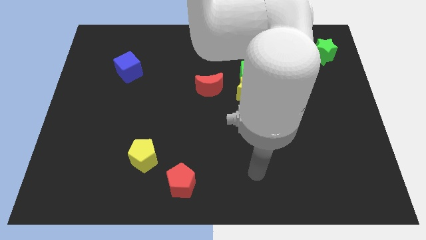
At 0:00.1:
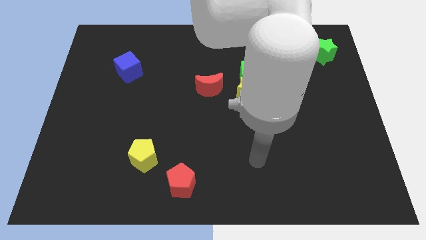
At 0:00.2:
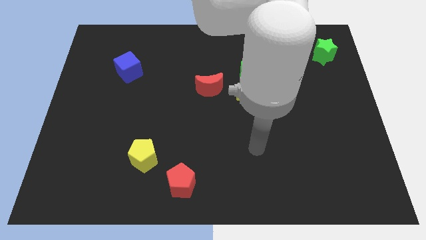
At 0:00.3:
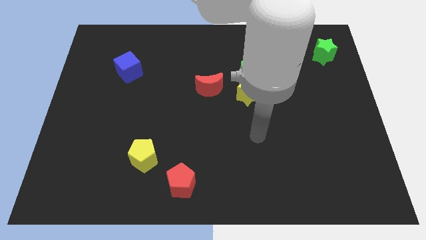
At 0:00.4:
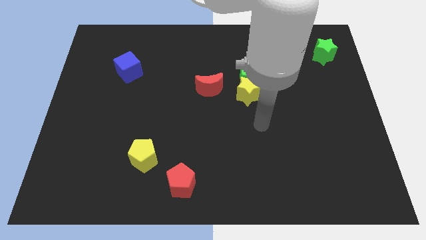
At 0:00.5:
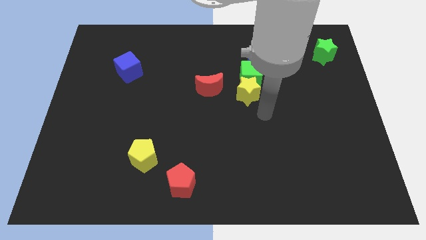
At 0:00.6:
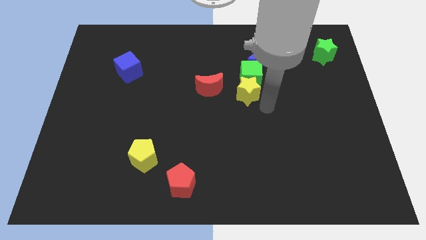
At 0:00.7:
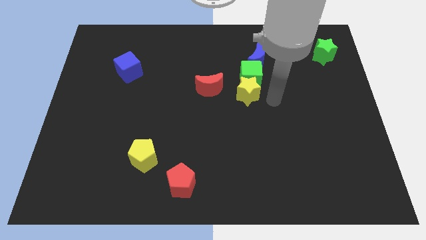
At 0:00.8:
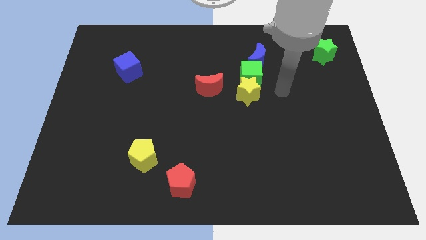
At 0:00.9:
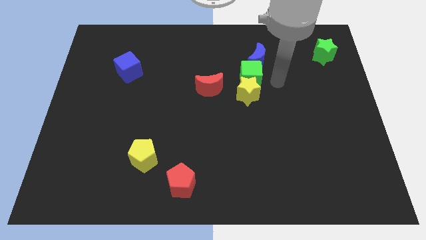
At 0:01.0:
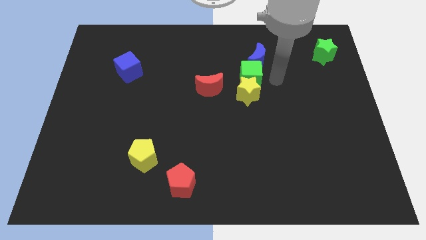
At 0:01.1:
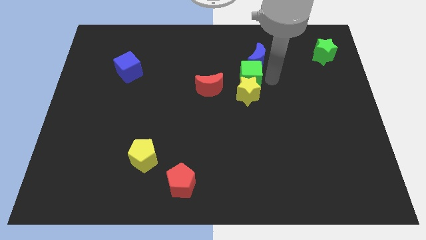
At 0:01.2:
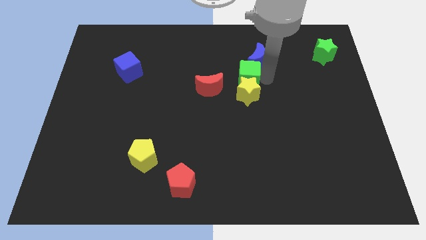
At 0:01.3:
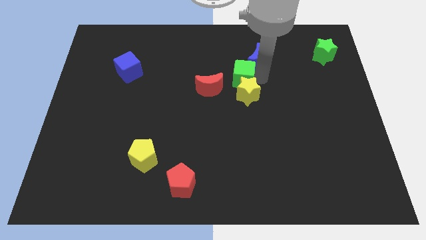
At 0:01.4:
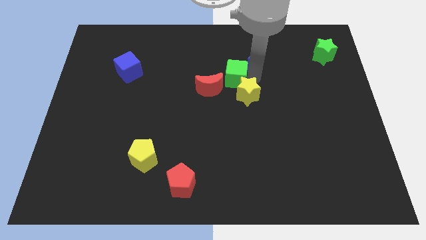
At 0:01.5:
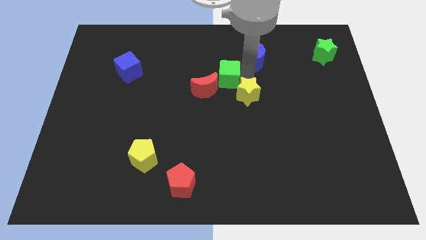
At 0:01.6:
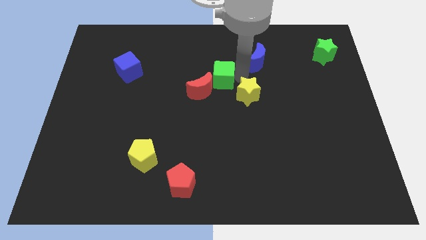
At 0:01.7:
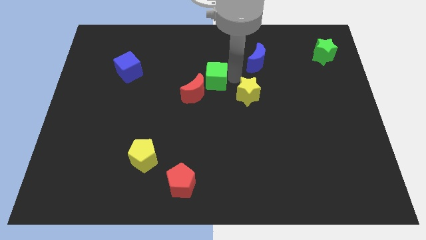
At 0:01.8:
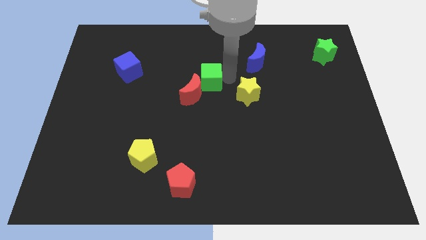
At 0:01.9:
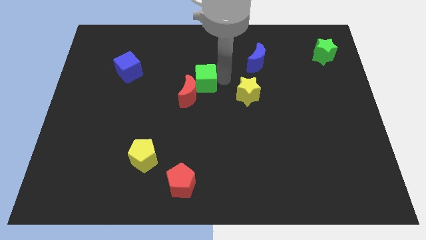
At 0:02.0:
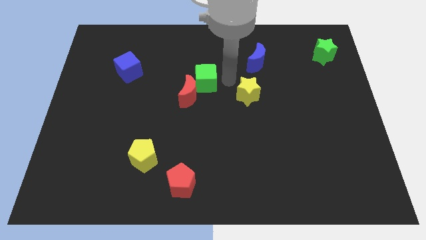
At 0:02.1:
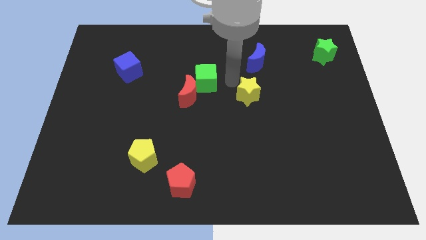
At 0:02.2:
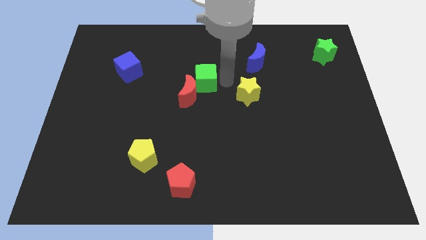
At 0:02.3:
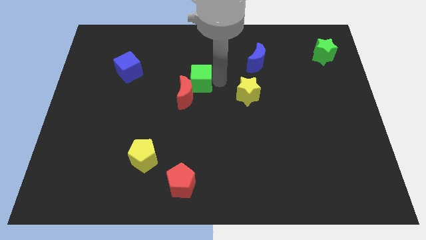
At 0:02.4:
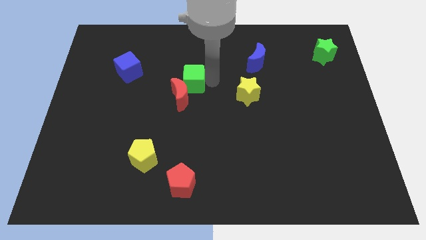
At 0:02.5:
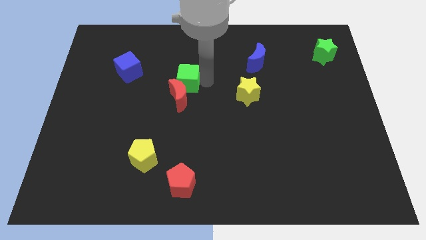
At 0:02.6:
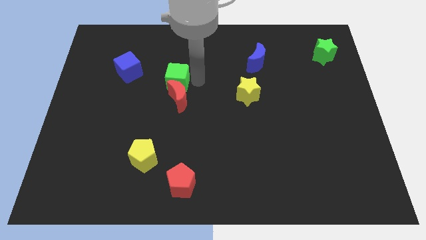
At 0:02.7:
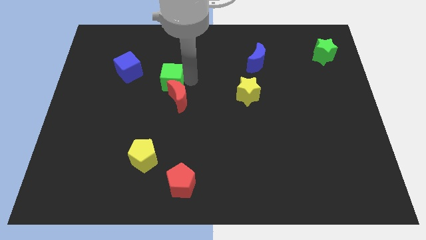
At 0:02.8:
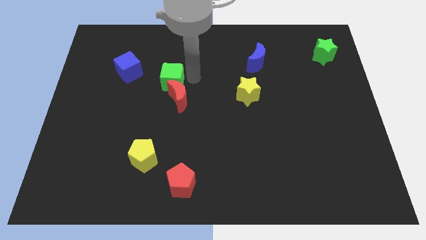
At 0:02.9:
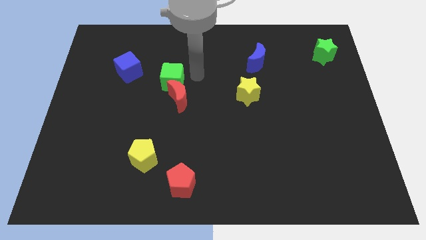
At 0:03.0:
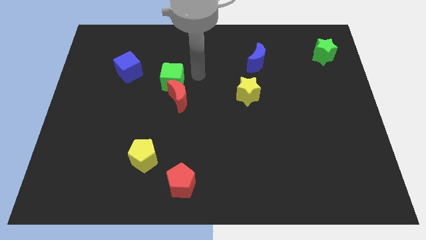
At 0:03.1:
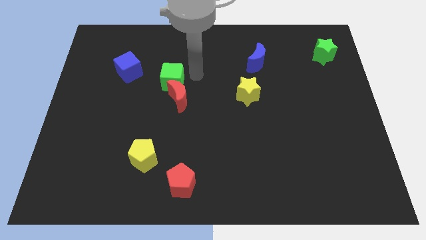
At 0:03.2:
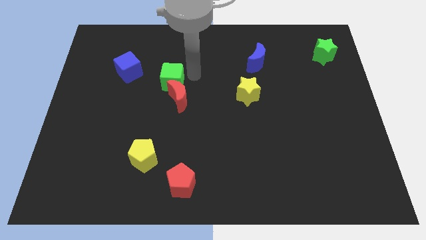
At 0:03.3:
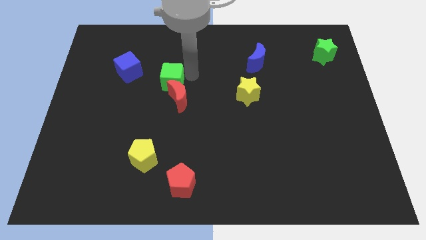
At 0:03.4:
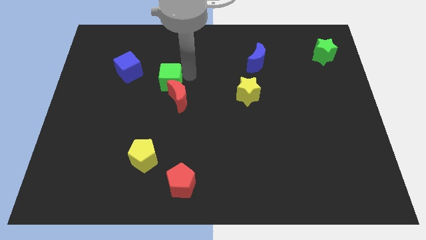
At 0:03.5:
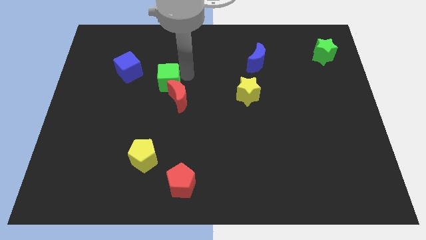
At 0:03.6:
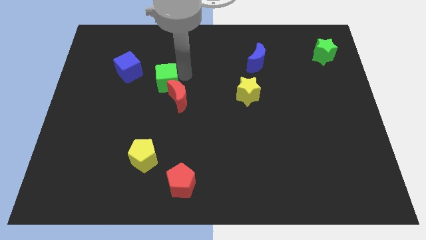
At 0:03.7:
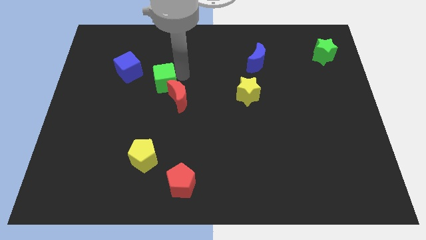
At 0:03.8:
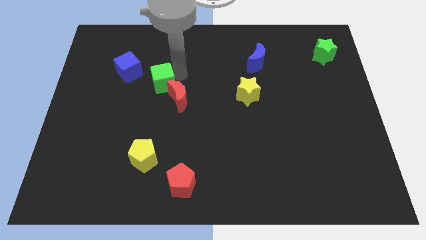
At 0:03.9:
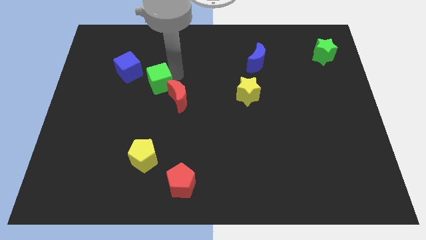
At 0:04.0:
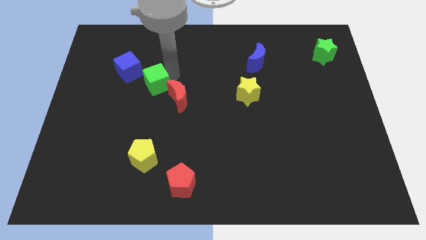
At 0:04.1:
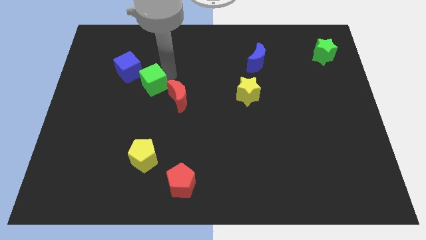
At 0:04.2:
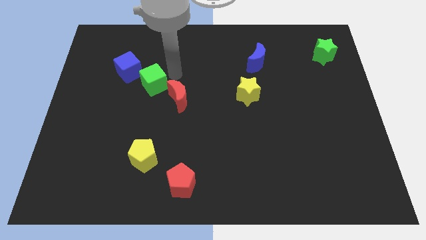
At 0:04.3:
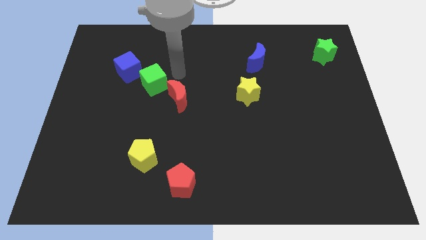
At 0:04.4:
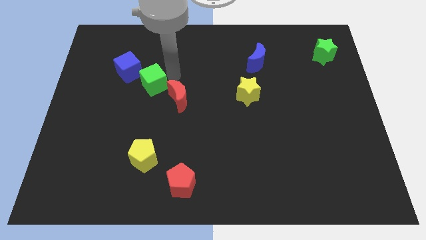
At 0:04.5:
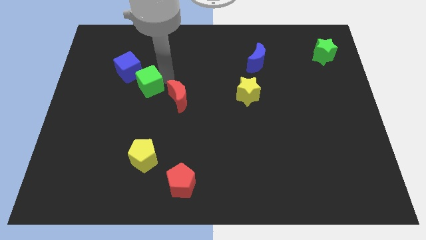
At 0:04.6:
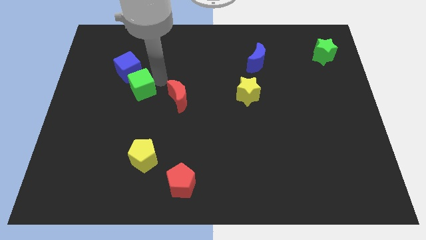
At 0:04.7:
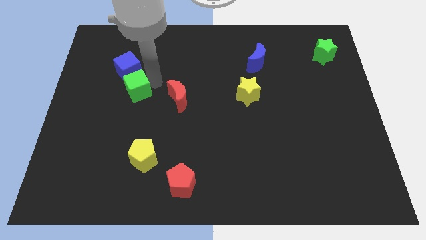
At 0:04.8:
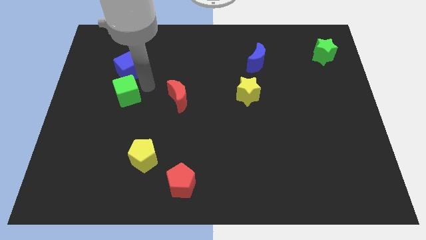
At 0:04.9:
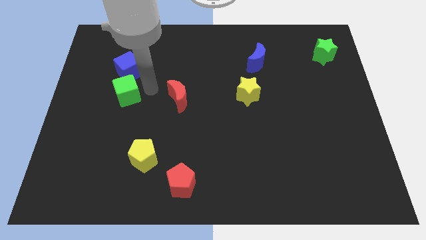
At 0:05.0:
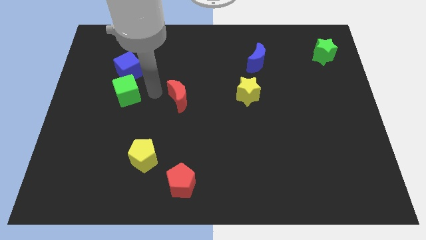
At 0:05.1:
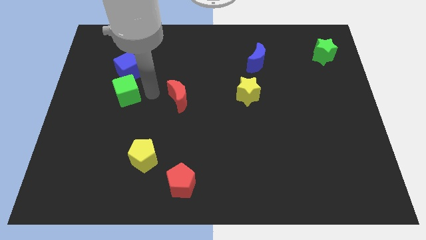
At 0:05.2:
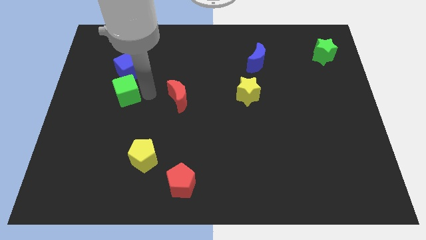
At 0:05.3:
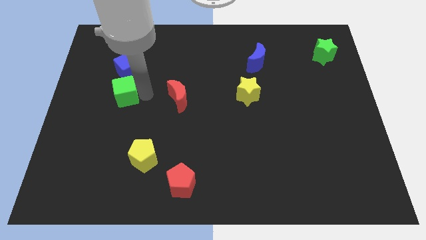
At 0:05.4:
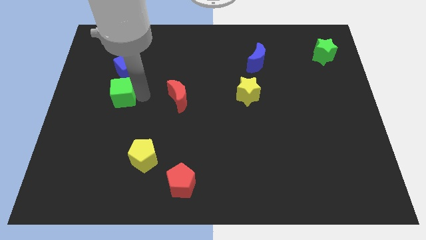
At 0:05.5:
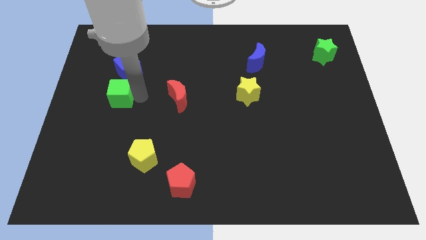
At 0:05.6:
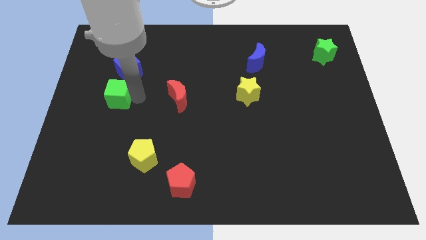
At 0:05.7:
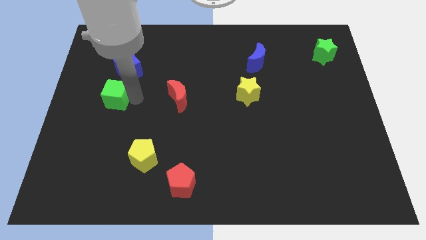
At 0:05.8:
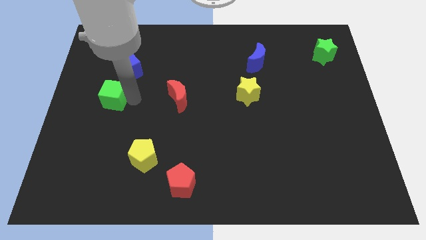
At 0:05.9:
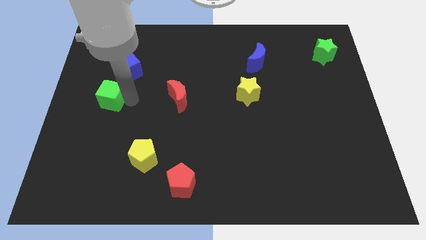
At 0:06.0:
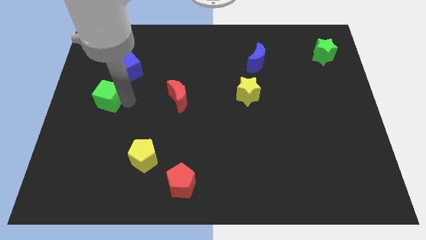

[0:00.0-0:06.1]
push the green cube to the left side
